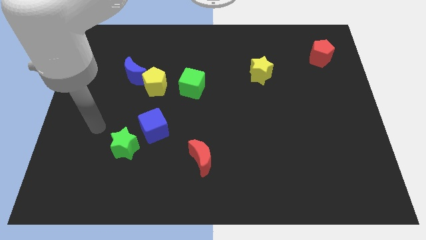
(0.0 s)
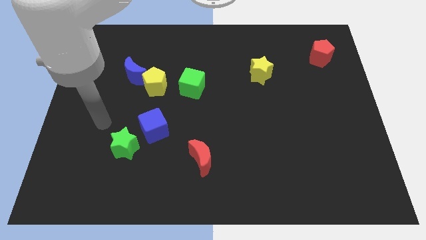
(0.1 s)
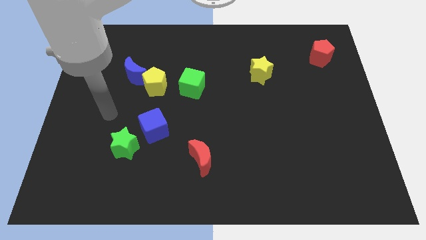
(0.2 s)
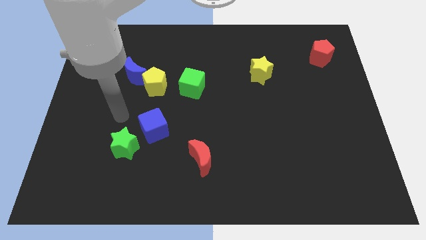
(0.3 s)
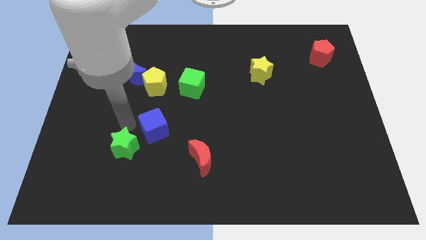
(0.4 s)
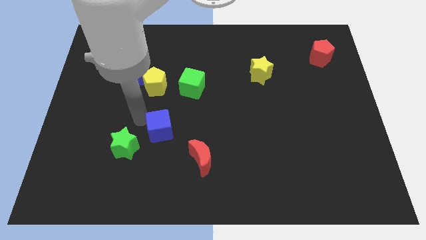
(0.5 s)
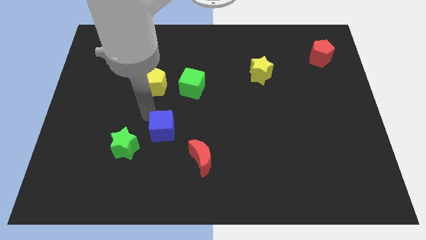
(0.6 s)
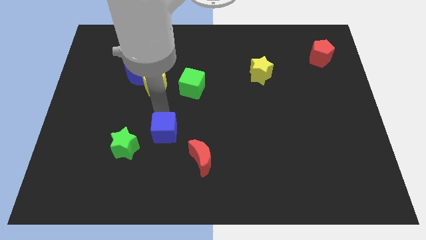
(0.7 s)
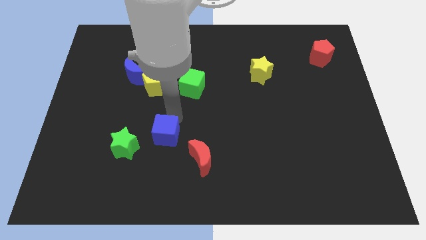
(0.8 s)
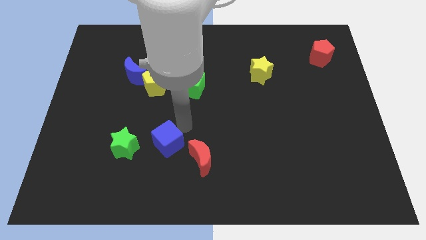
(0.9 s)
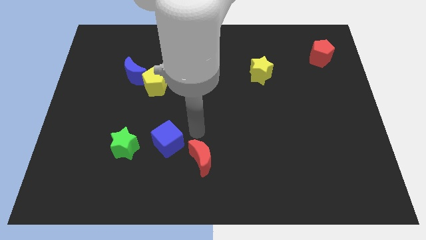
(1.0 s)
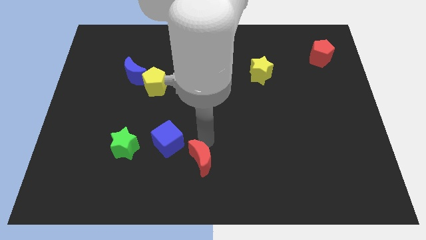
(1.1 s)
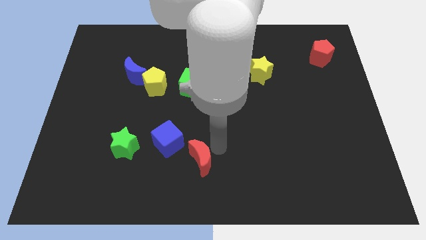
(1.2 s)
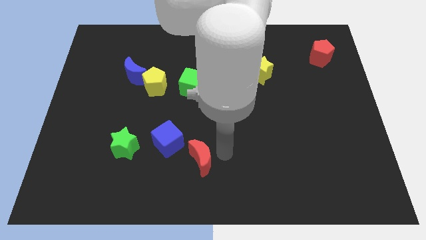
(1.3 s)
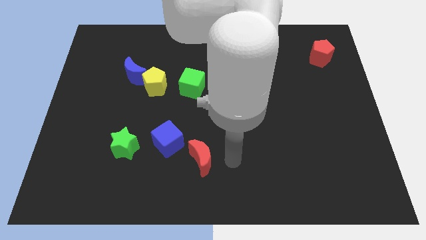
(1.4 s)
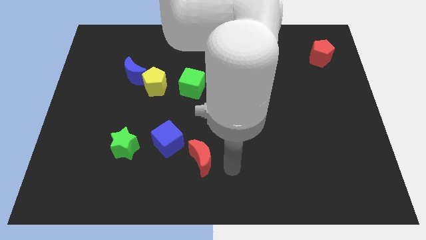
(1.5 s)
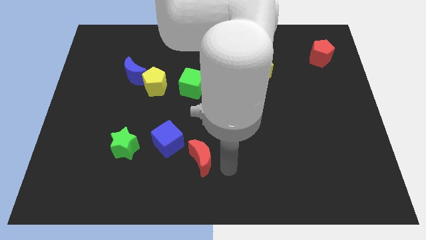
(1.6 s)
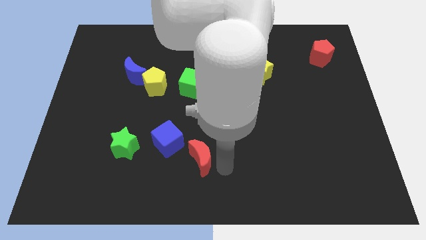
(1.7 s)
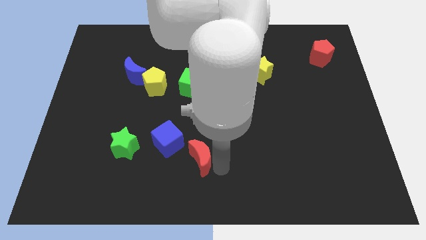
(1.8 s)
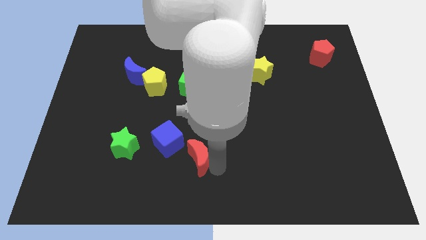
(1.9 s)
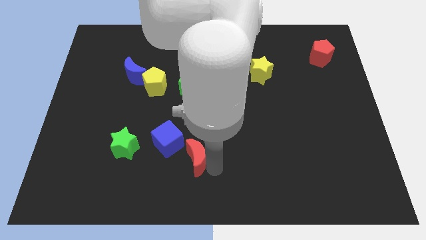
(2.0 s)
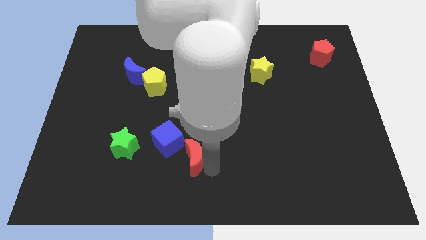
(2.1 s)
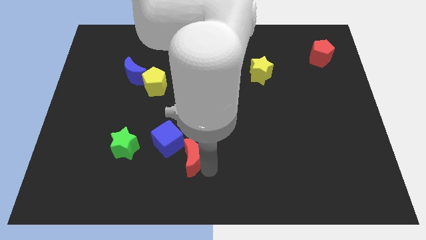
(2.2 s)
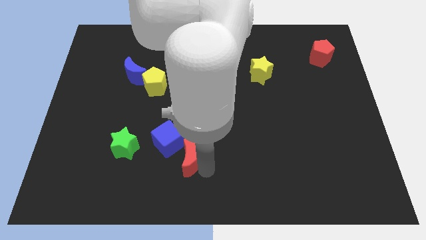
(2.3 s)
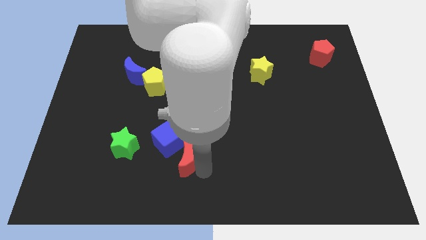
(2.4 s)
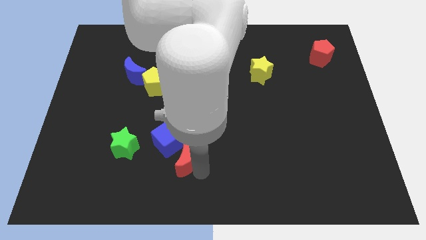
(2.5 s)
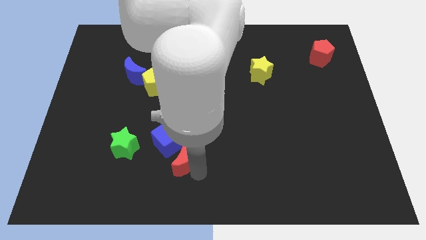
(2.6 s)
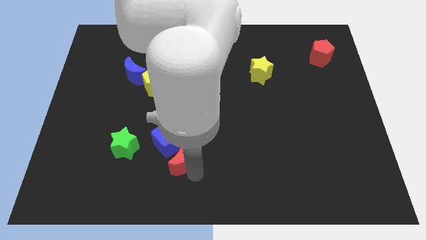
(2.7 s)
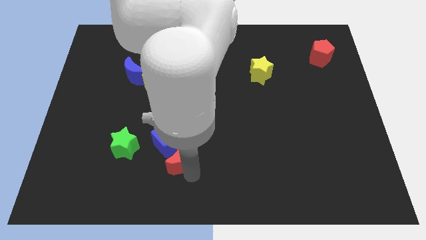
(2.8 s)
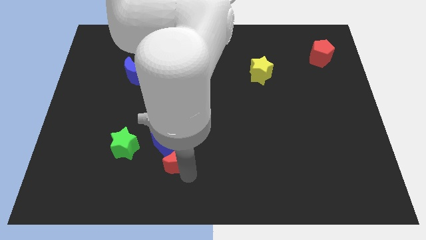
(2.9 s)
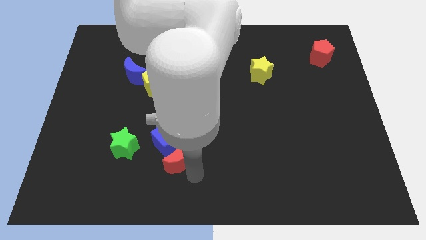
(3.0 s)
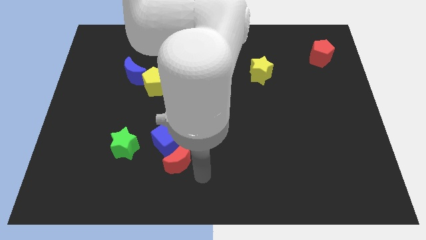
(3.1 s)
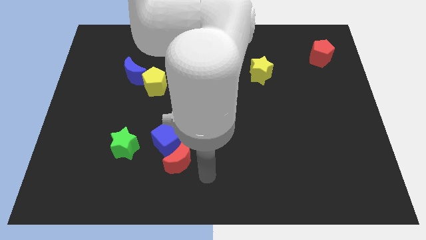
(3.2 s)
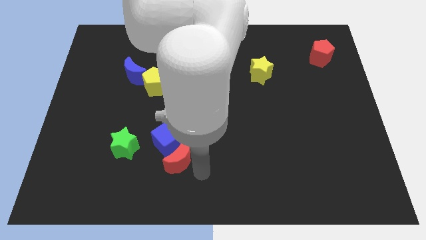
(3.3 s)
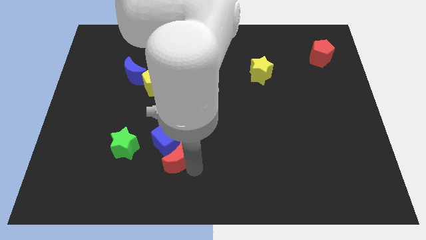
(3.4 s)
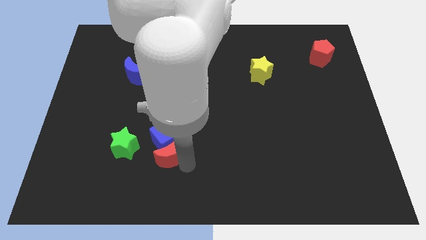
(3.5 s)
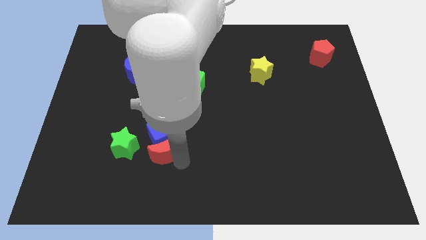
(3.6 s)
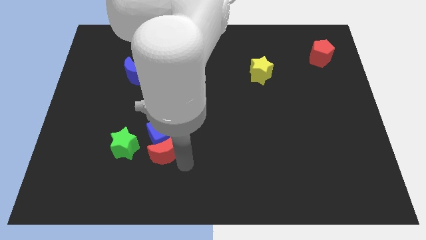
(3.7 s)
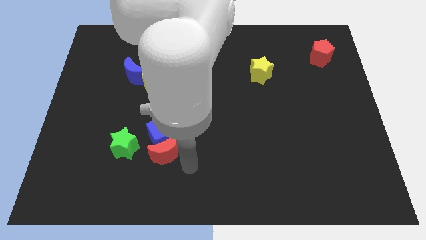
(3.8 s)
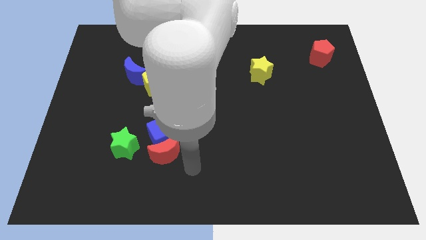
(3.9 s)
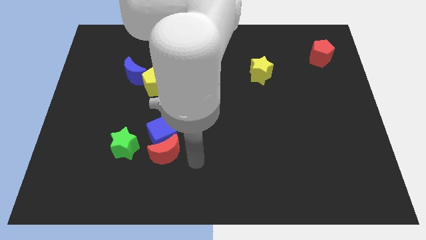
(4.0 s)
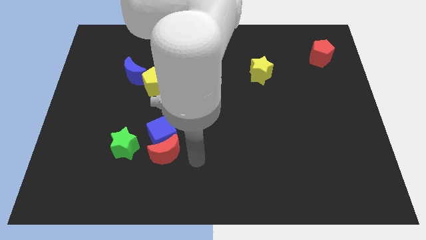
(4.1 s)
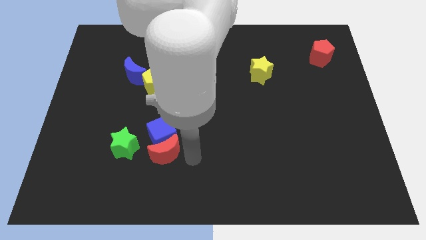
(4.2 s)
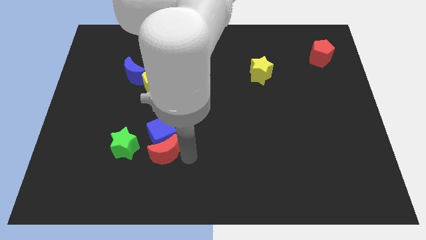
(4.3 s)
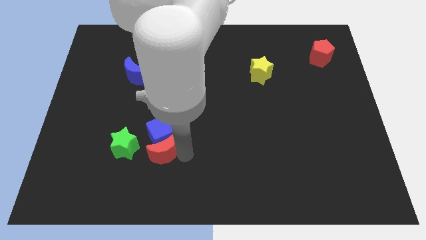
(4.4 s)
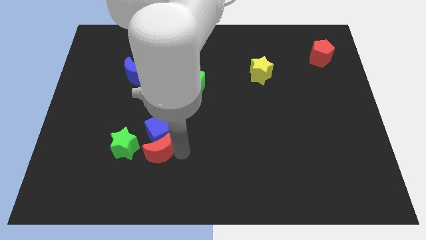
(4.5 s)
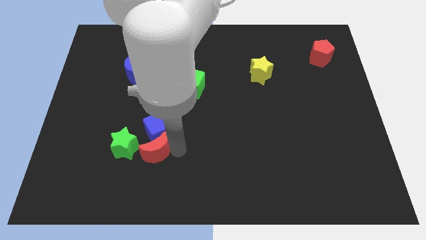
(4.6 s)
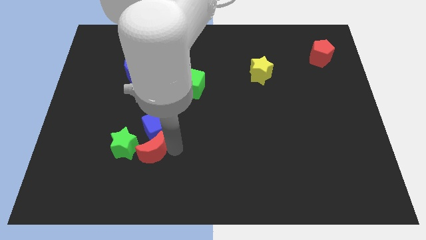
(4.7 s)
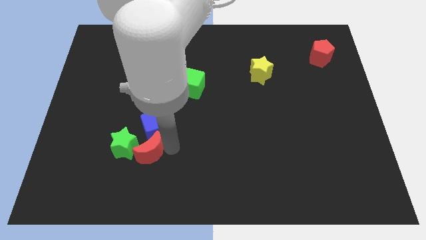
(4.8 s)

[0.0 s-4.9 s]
move the red moon next to the green star

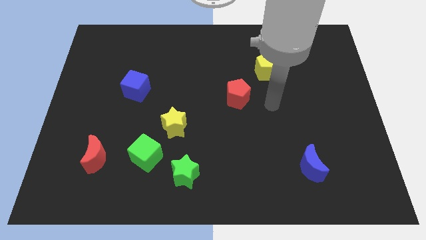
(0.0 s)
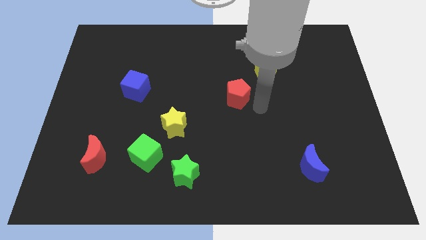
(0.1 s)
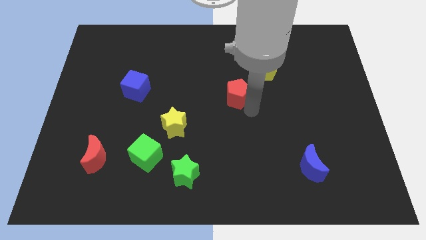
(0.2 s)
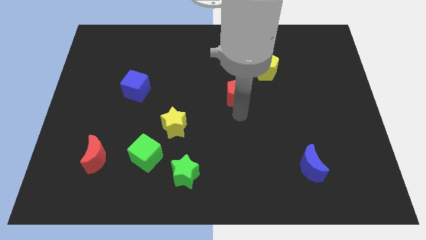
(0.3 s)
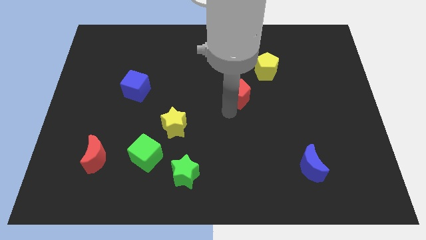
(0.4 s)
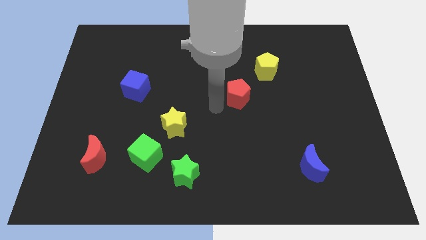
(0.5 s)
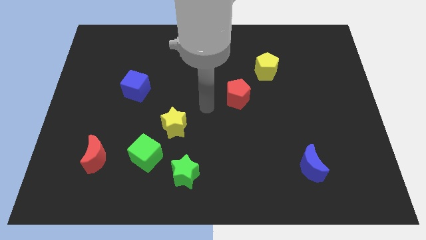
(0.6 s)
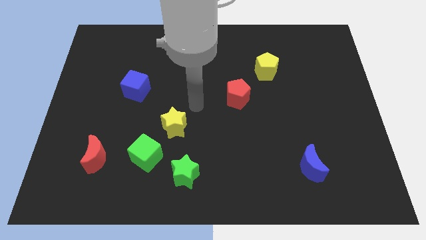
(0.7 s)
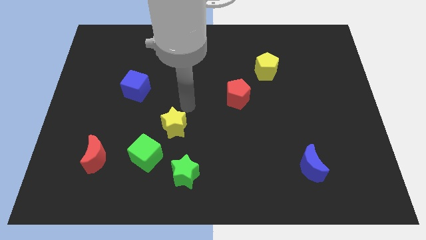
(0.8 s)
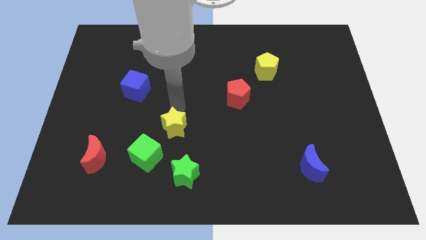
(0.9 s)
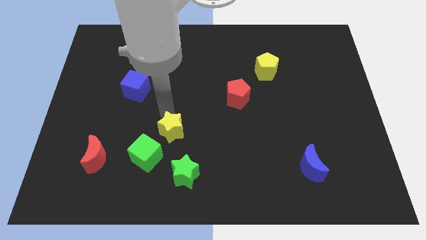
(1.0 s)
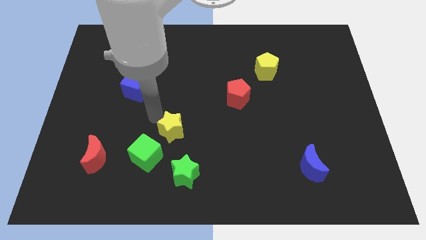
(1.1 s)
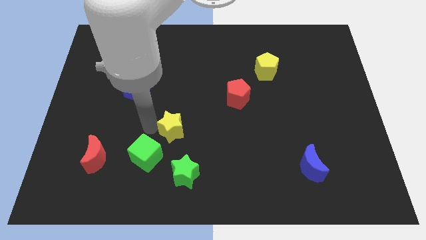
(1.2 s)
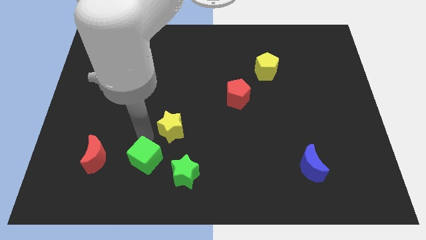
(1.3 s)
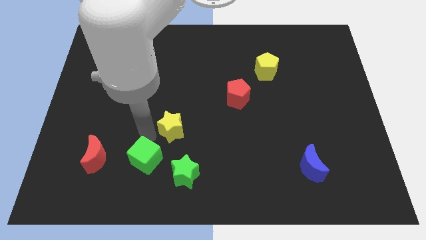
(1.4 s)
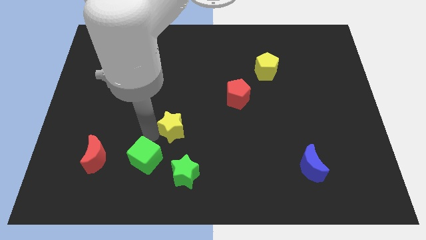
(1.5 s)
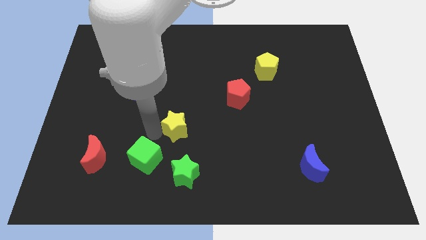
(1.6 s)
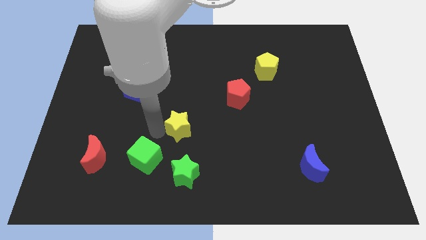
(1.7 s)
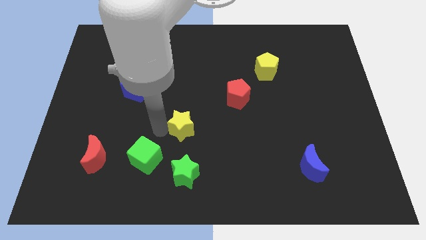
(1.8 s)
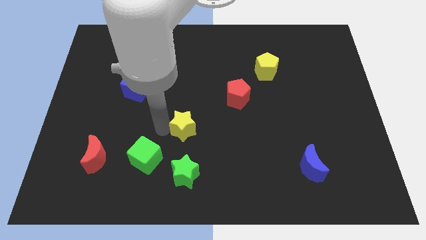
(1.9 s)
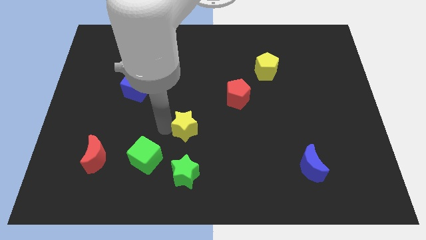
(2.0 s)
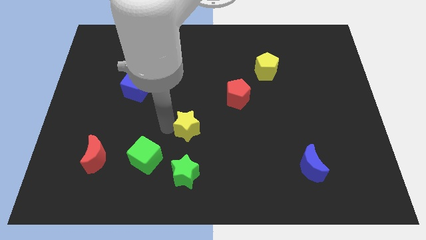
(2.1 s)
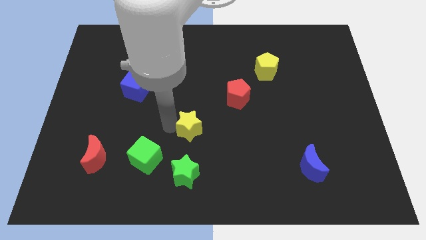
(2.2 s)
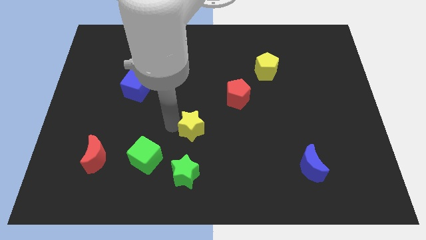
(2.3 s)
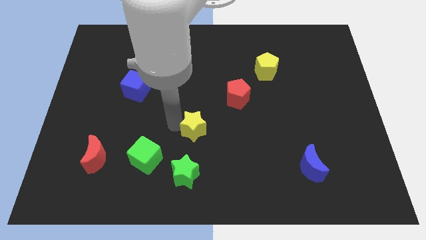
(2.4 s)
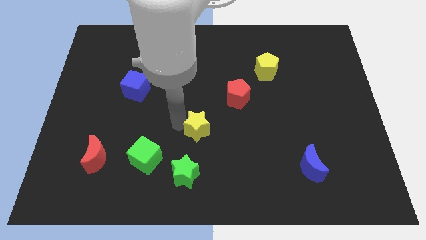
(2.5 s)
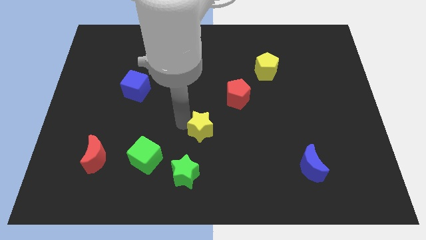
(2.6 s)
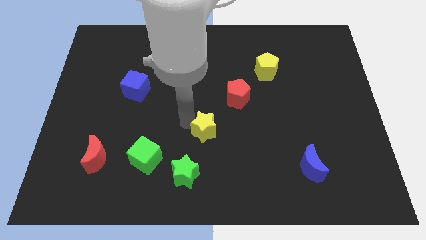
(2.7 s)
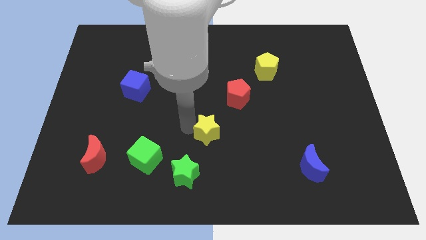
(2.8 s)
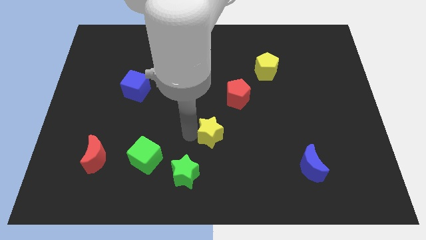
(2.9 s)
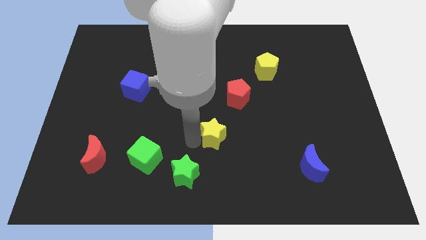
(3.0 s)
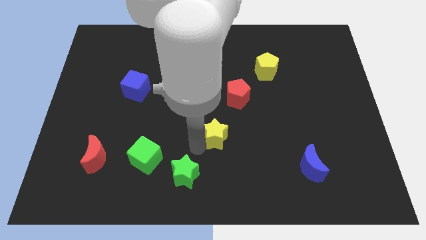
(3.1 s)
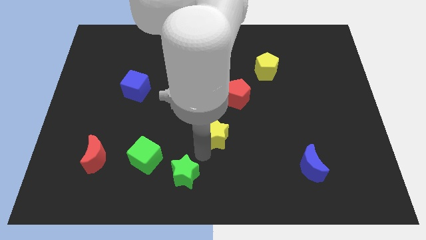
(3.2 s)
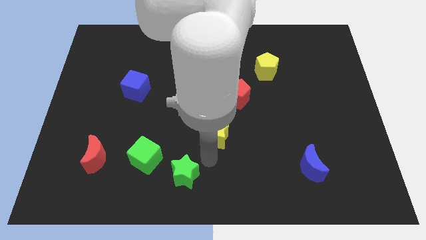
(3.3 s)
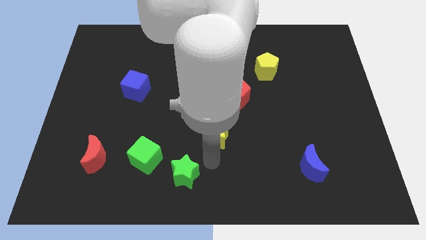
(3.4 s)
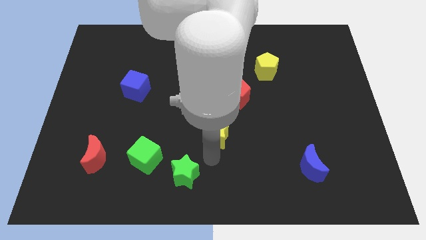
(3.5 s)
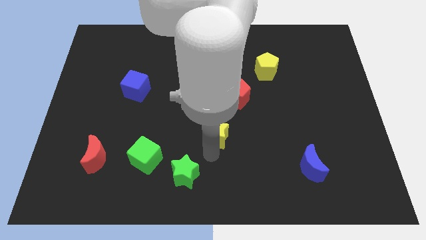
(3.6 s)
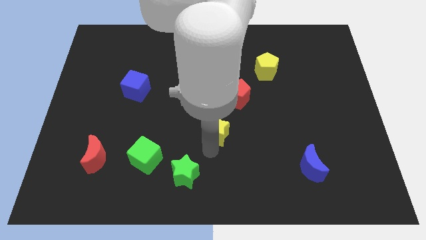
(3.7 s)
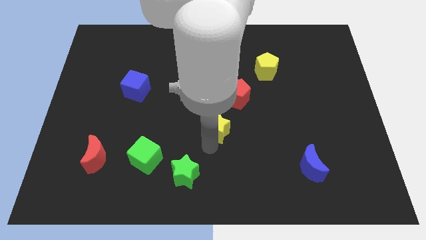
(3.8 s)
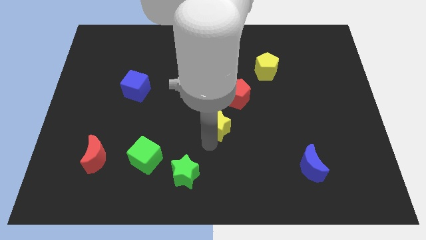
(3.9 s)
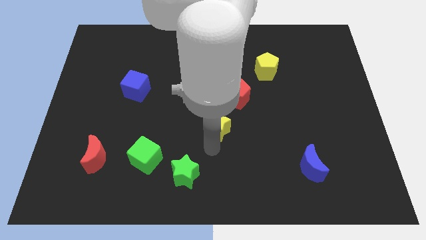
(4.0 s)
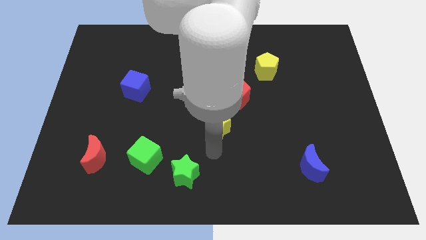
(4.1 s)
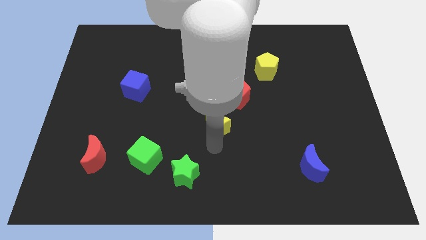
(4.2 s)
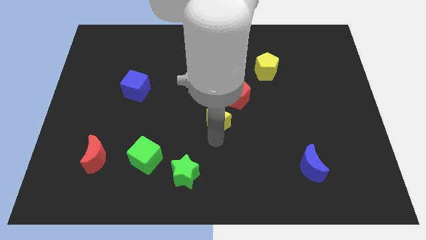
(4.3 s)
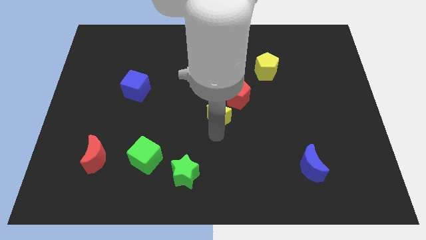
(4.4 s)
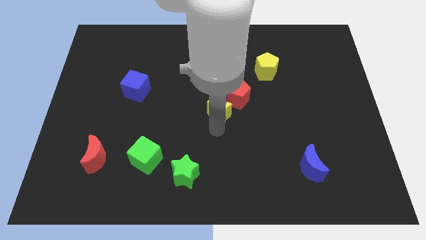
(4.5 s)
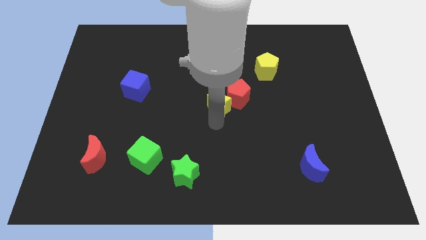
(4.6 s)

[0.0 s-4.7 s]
put the yellow star to the red pentagon
